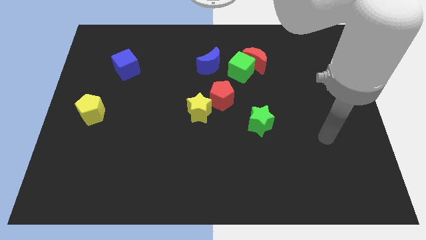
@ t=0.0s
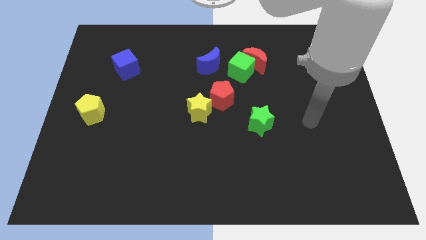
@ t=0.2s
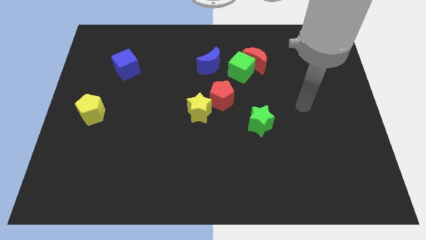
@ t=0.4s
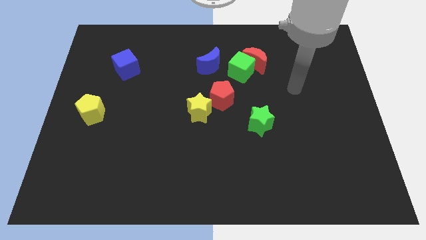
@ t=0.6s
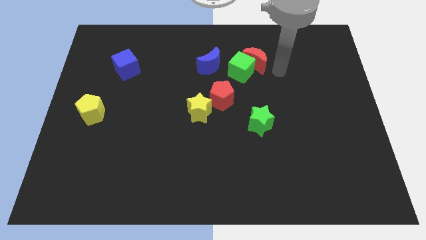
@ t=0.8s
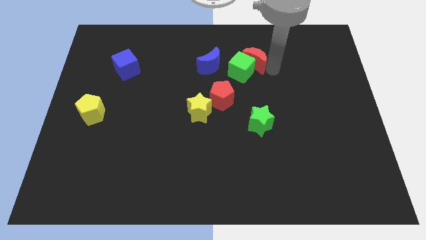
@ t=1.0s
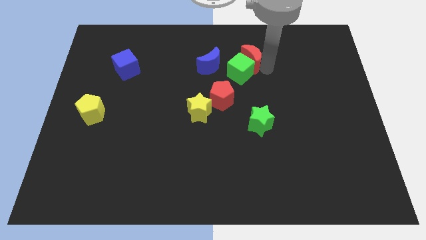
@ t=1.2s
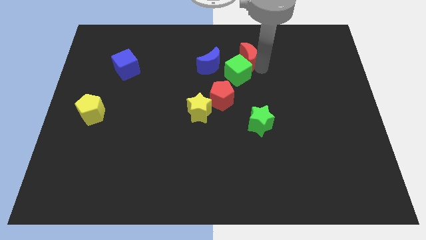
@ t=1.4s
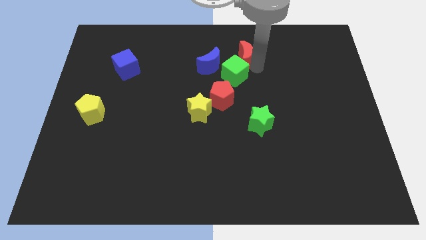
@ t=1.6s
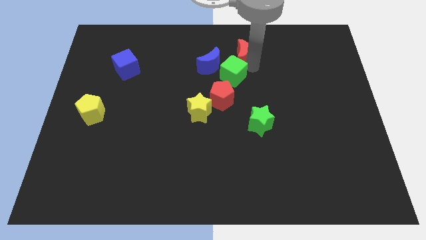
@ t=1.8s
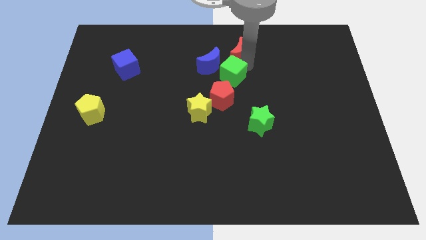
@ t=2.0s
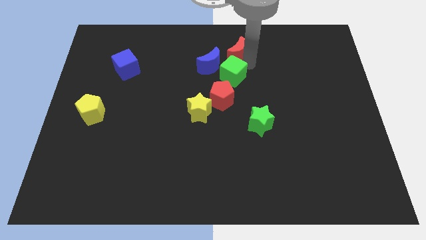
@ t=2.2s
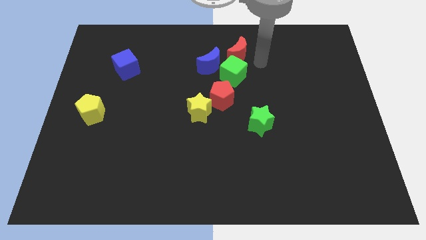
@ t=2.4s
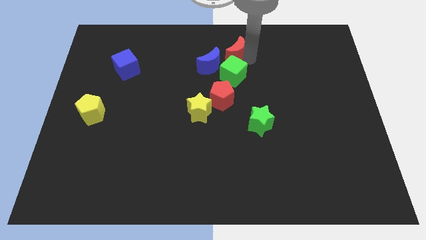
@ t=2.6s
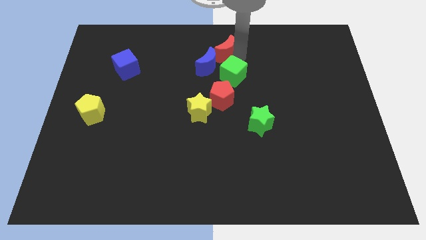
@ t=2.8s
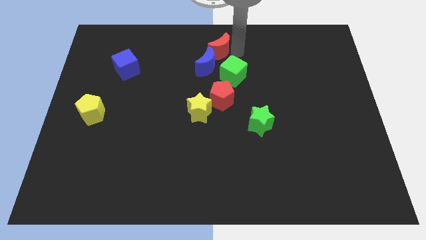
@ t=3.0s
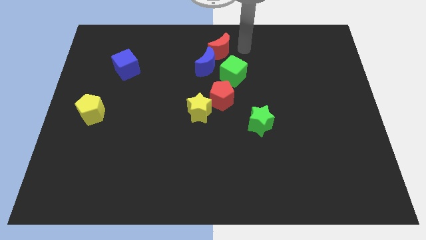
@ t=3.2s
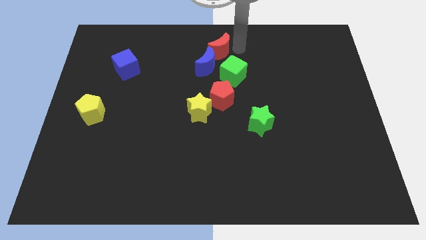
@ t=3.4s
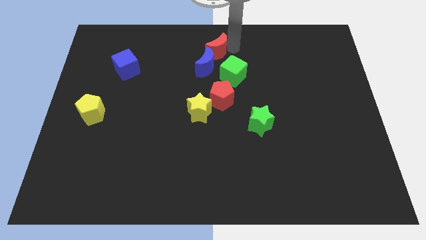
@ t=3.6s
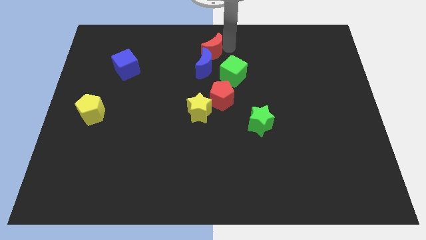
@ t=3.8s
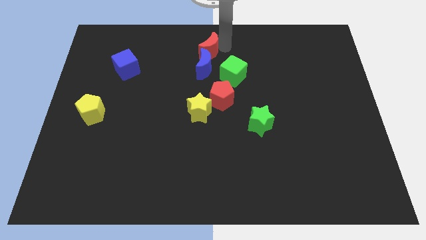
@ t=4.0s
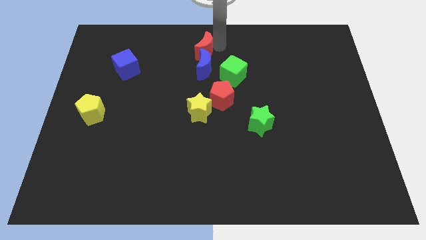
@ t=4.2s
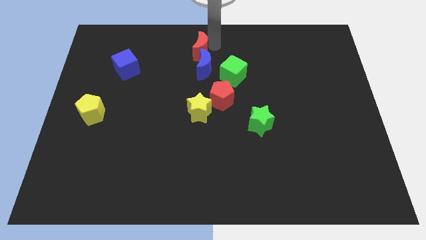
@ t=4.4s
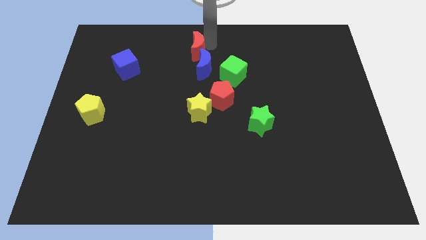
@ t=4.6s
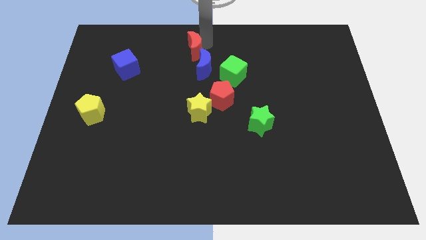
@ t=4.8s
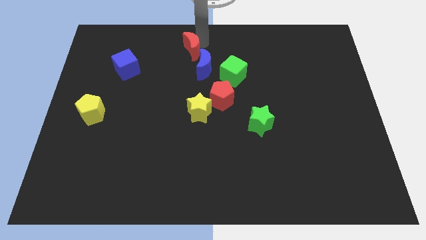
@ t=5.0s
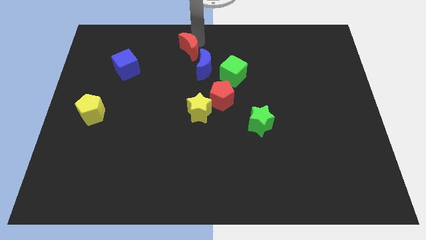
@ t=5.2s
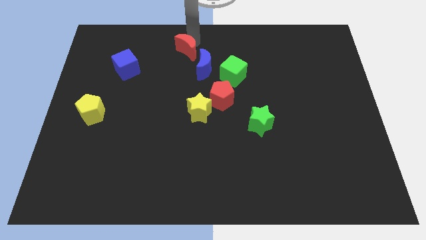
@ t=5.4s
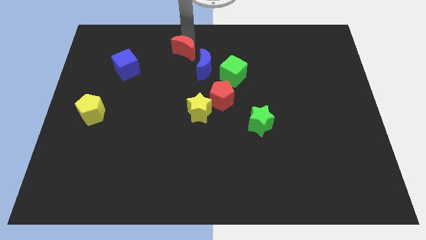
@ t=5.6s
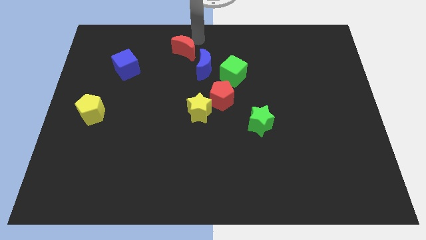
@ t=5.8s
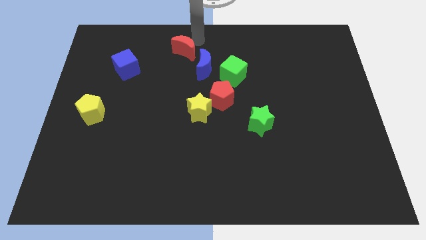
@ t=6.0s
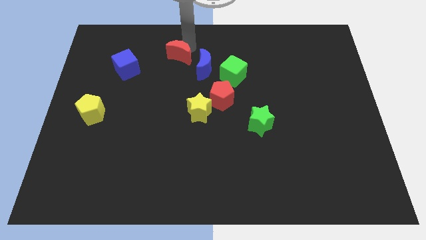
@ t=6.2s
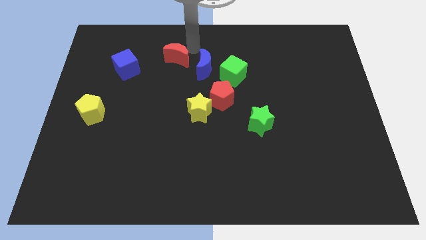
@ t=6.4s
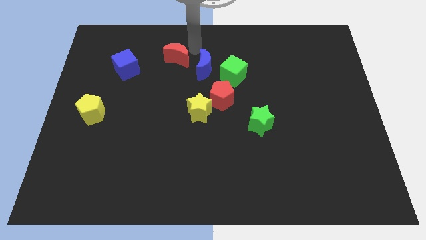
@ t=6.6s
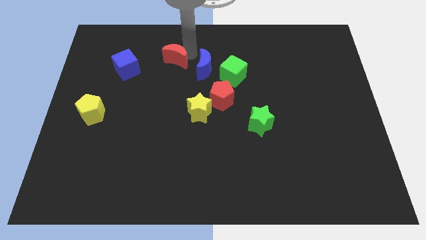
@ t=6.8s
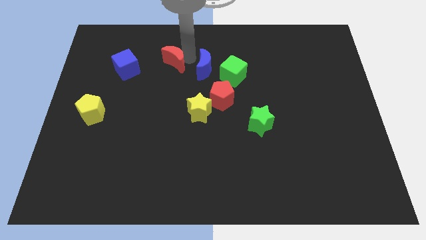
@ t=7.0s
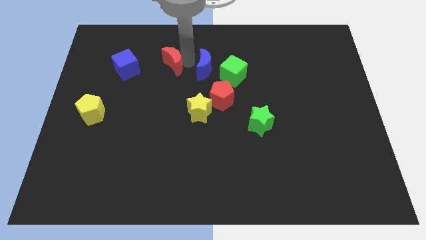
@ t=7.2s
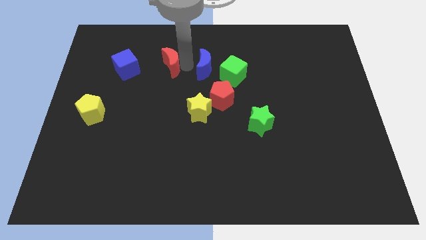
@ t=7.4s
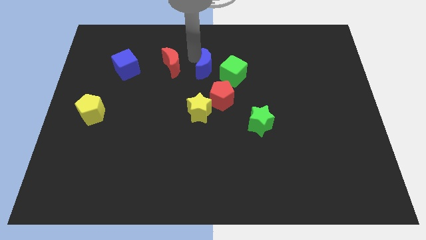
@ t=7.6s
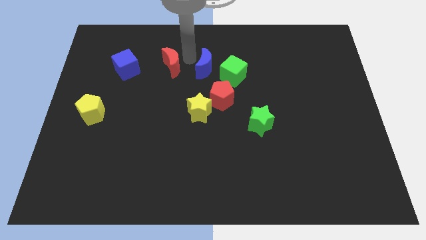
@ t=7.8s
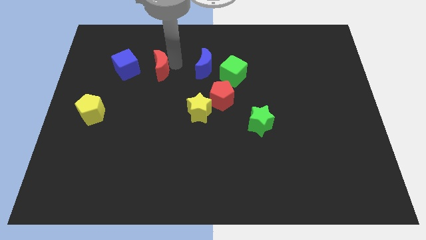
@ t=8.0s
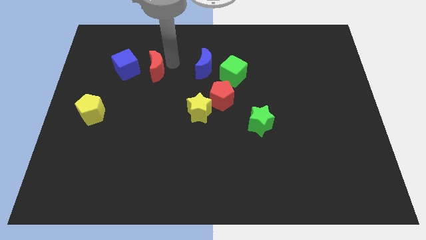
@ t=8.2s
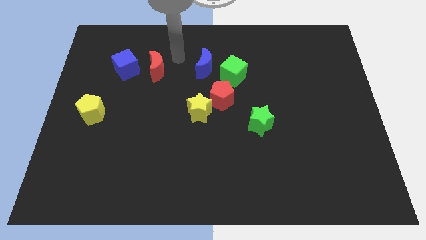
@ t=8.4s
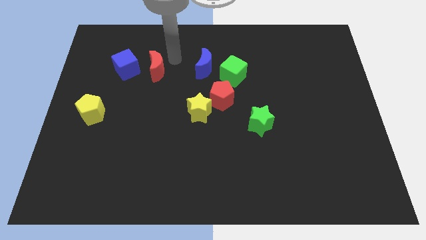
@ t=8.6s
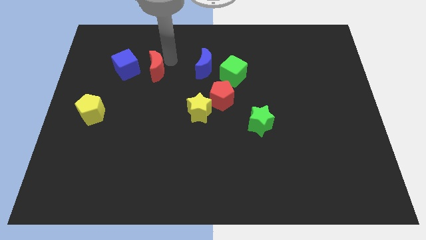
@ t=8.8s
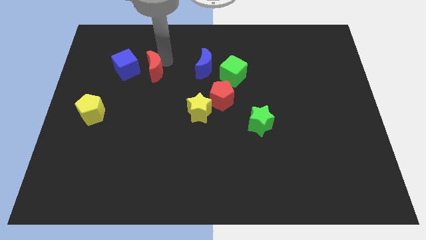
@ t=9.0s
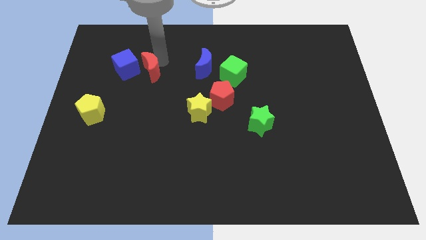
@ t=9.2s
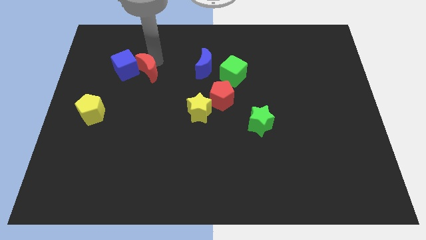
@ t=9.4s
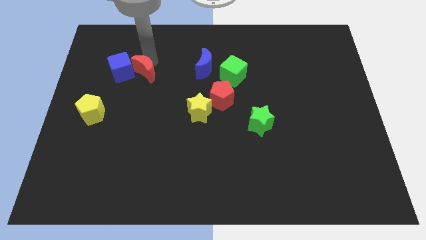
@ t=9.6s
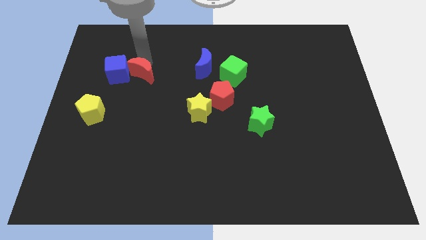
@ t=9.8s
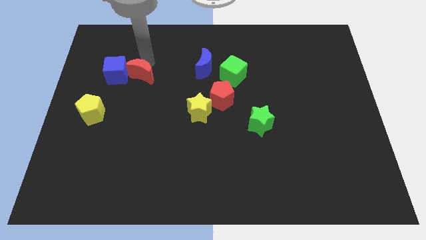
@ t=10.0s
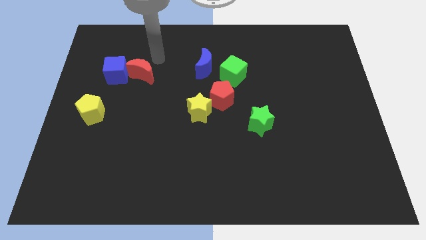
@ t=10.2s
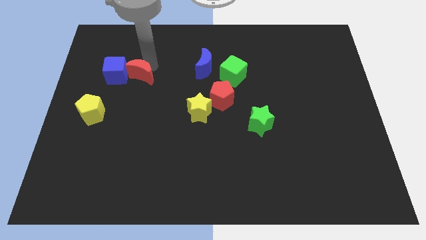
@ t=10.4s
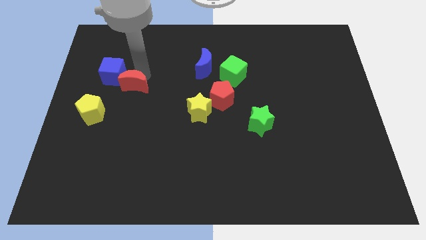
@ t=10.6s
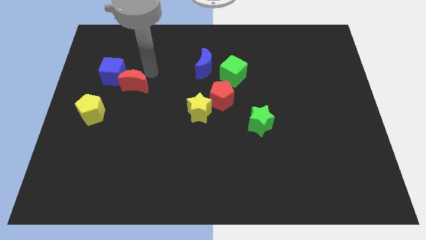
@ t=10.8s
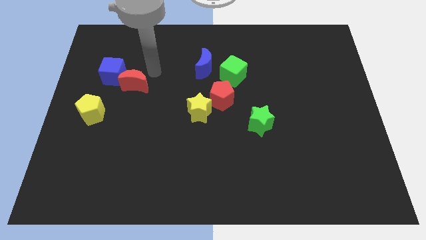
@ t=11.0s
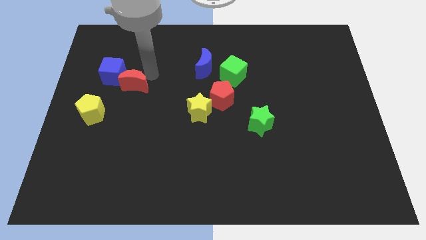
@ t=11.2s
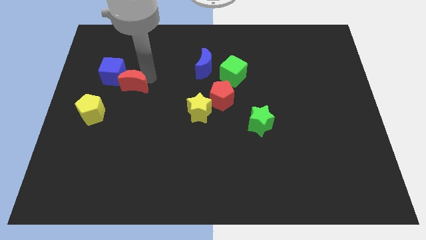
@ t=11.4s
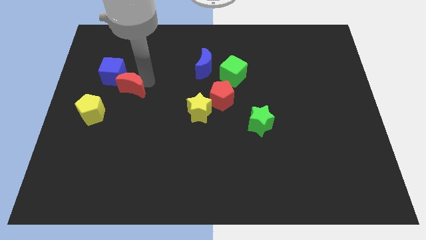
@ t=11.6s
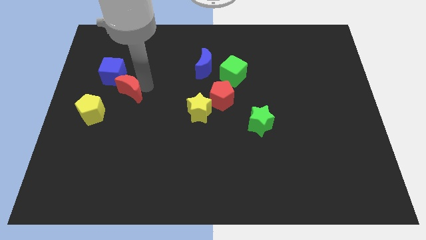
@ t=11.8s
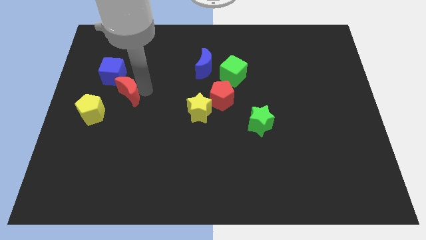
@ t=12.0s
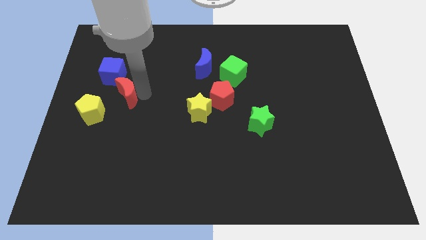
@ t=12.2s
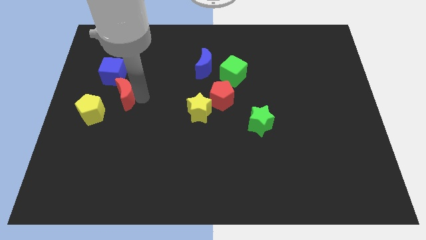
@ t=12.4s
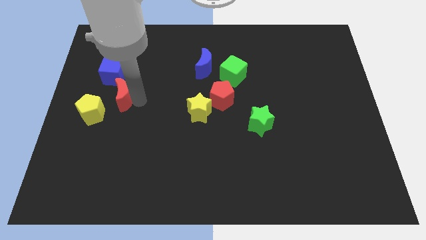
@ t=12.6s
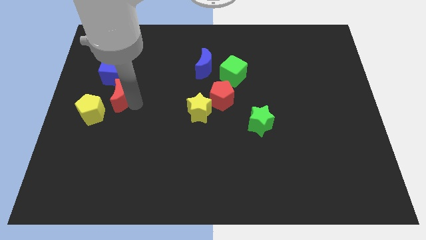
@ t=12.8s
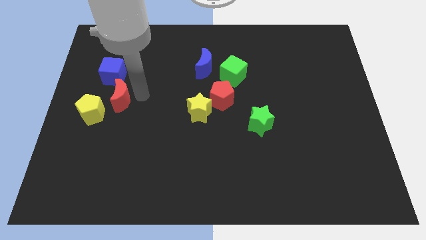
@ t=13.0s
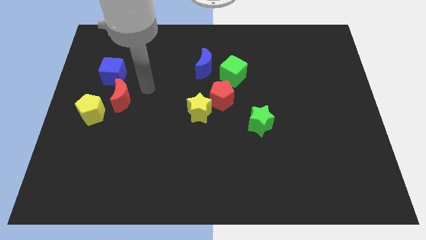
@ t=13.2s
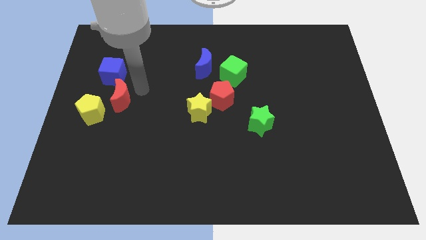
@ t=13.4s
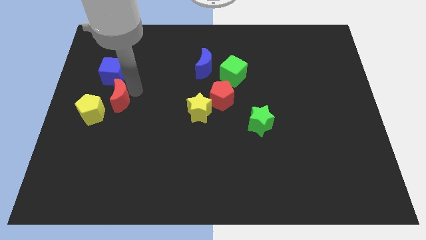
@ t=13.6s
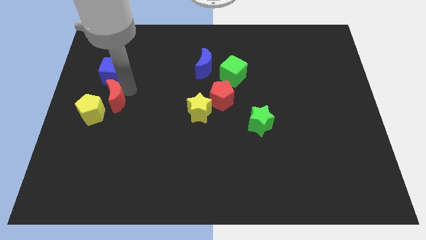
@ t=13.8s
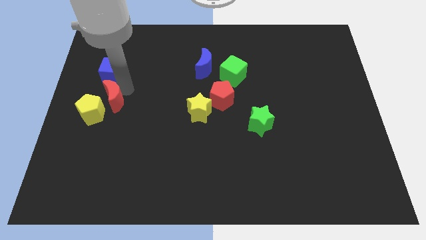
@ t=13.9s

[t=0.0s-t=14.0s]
slide the red moon close to the yellow pentagon

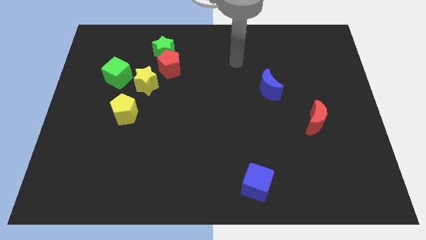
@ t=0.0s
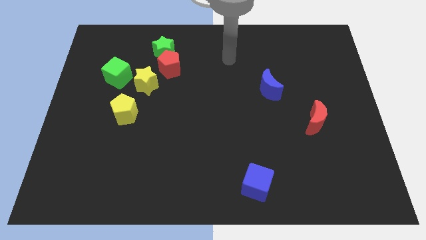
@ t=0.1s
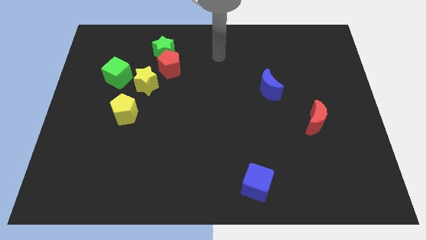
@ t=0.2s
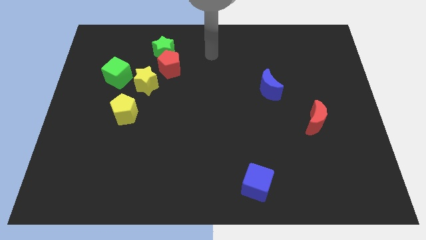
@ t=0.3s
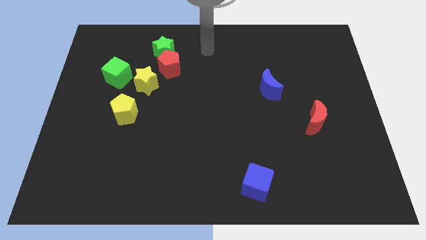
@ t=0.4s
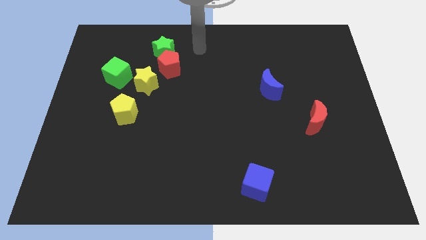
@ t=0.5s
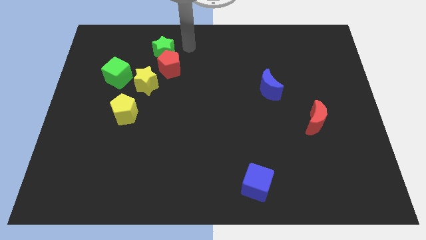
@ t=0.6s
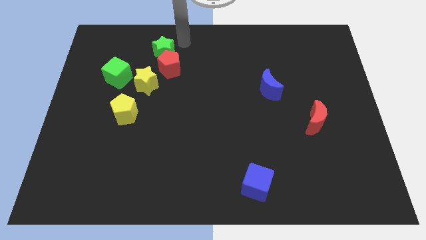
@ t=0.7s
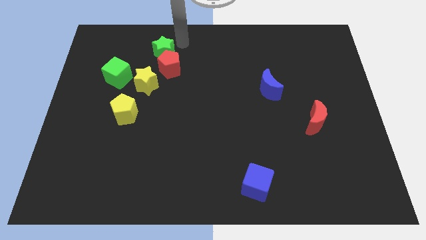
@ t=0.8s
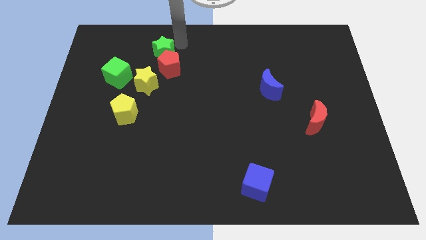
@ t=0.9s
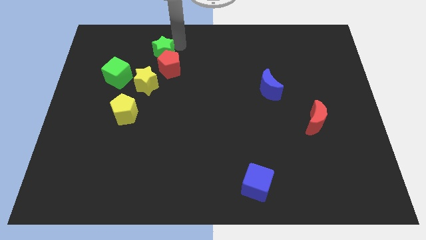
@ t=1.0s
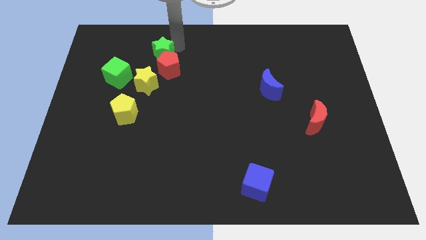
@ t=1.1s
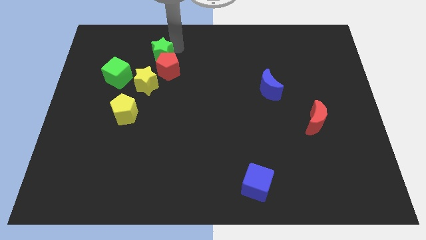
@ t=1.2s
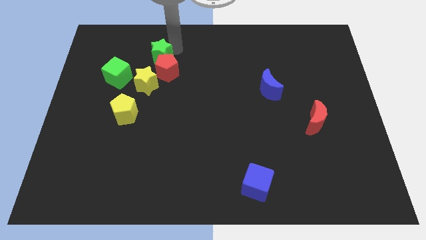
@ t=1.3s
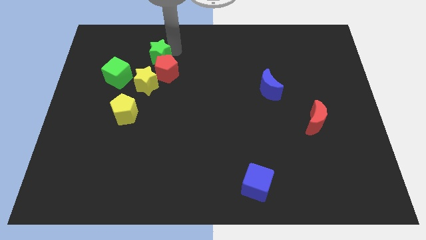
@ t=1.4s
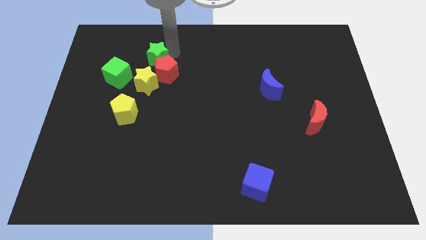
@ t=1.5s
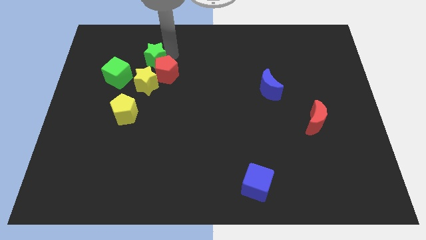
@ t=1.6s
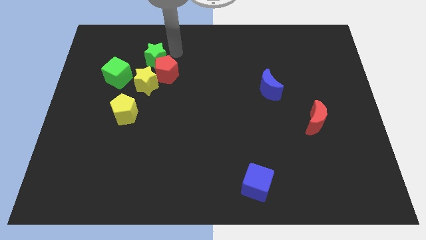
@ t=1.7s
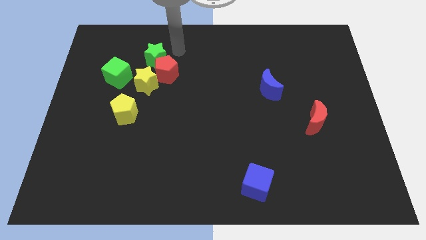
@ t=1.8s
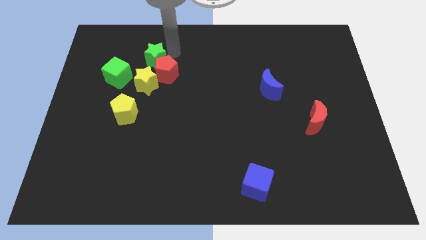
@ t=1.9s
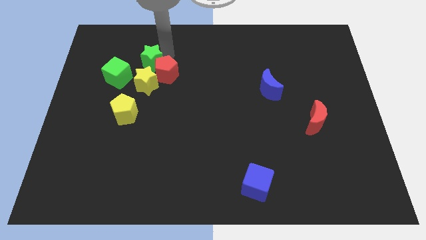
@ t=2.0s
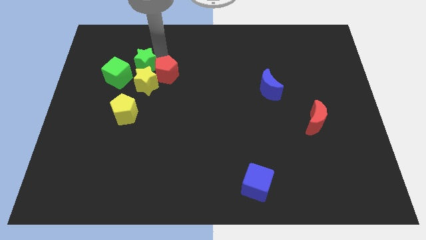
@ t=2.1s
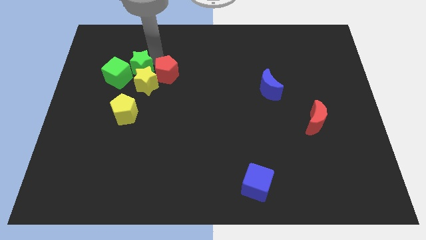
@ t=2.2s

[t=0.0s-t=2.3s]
slide the green star next to the green cube
